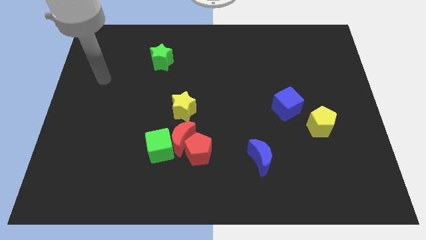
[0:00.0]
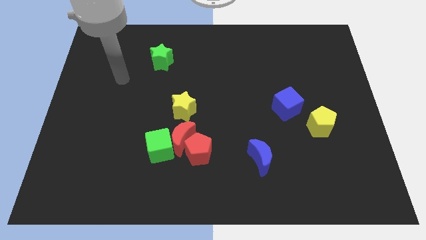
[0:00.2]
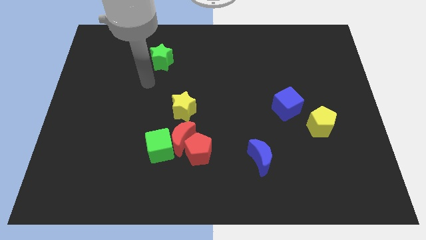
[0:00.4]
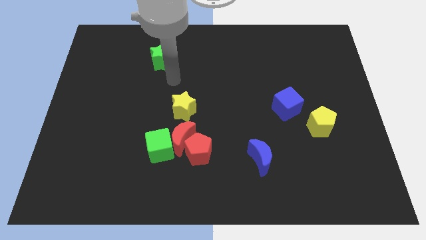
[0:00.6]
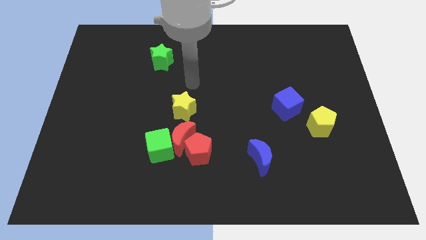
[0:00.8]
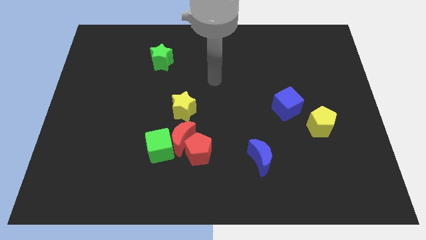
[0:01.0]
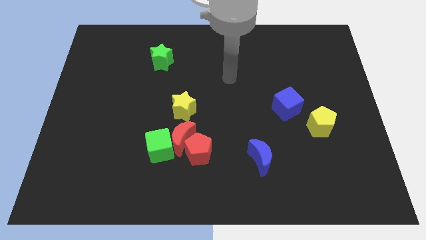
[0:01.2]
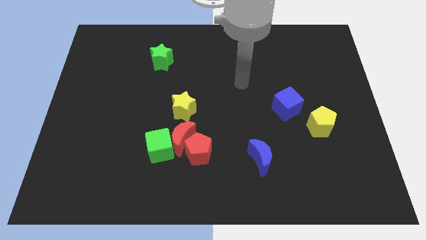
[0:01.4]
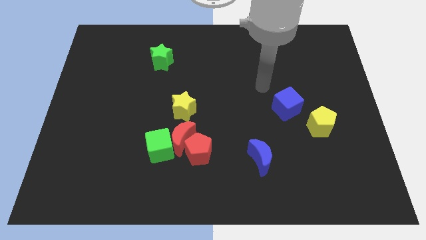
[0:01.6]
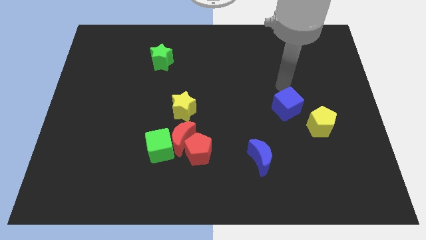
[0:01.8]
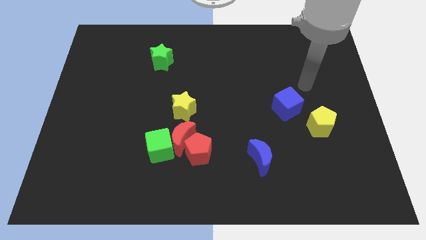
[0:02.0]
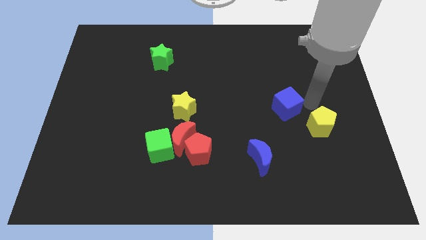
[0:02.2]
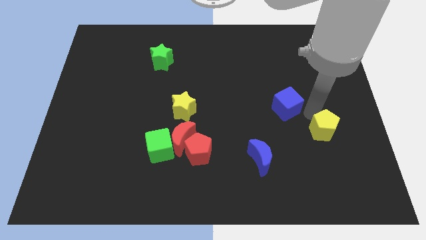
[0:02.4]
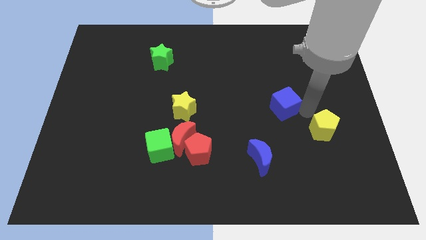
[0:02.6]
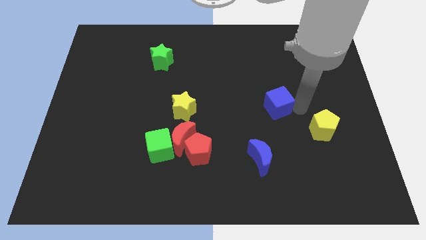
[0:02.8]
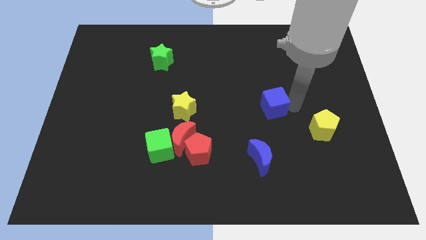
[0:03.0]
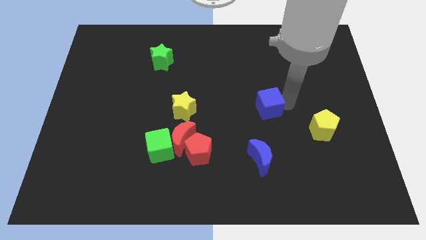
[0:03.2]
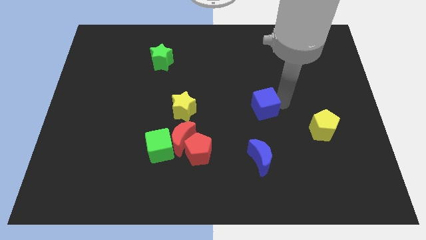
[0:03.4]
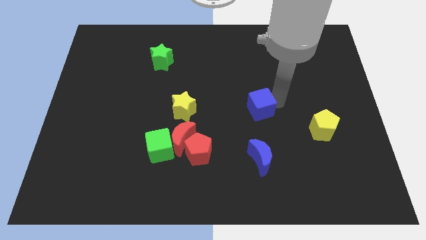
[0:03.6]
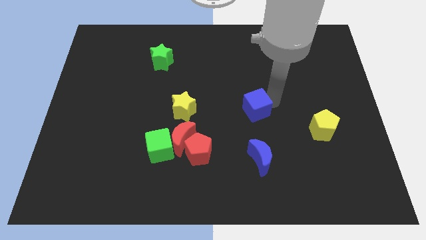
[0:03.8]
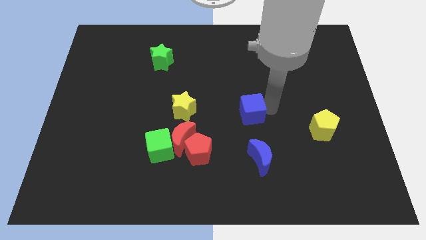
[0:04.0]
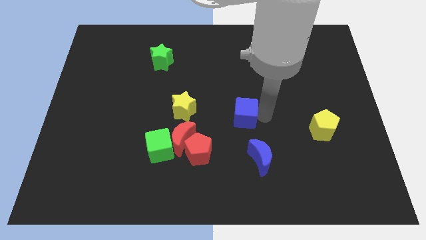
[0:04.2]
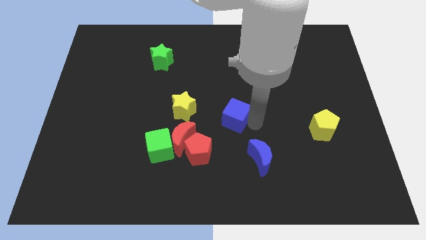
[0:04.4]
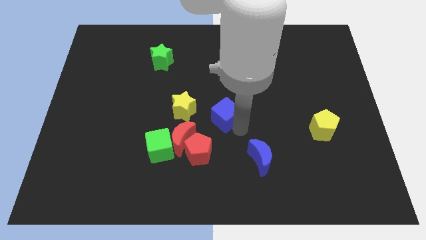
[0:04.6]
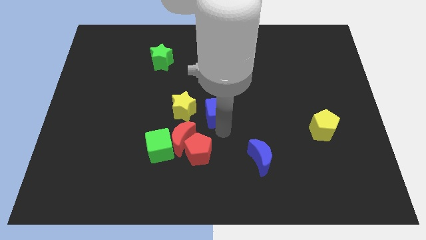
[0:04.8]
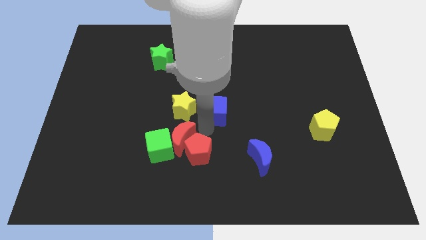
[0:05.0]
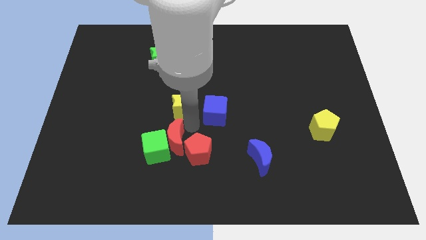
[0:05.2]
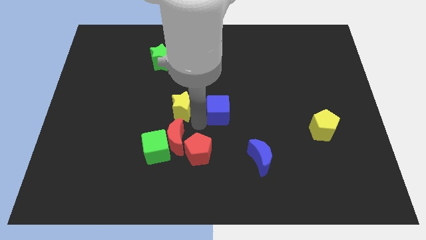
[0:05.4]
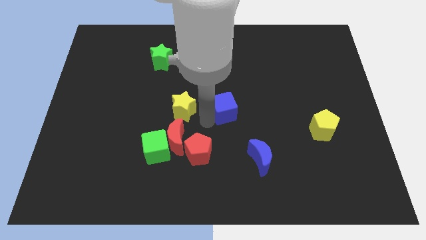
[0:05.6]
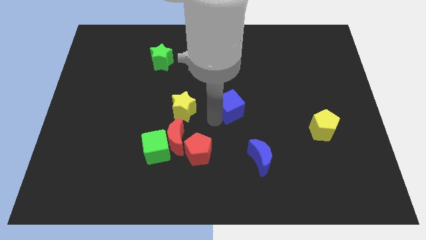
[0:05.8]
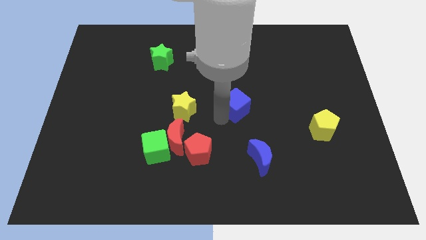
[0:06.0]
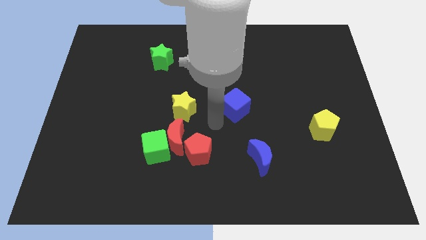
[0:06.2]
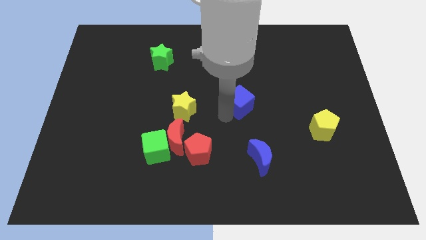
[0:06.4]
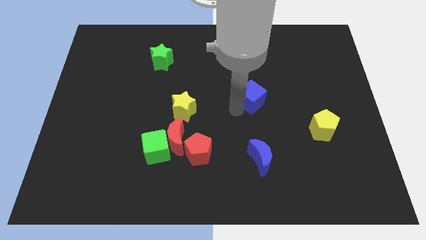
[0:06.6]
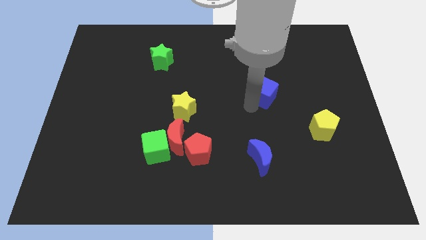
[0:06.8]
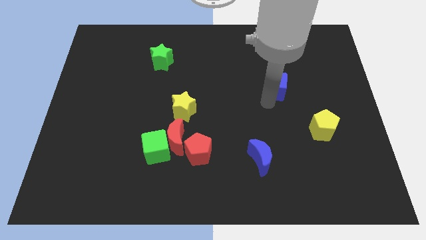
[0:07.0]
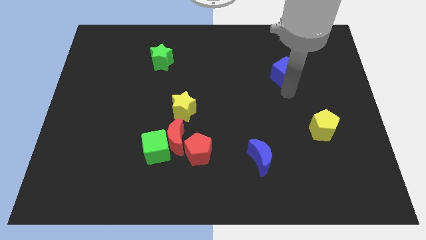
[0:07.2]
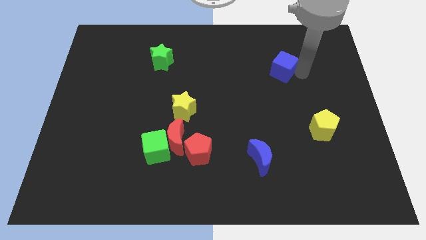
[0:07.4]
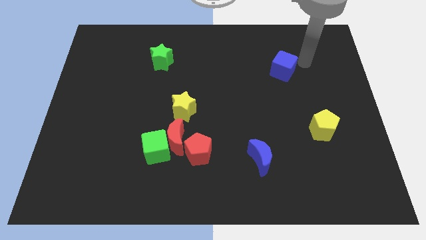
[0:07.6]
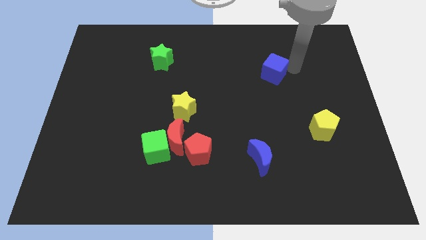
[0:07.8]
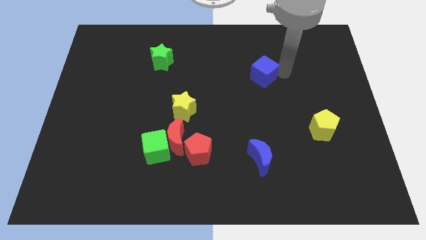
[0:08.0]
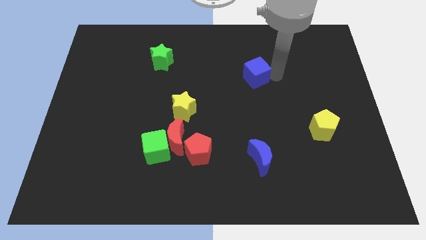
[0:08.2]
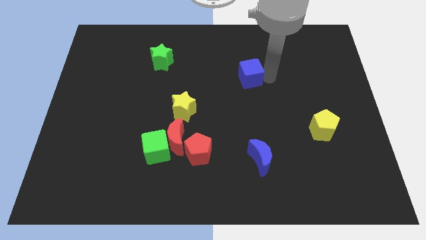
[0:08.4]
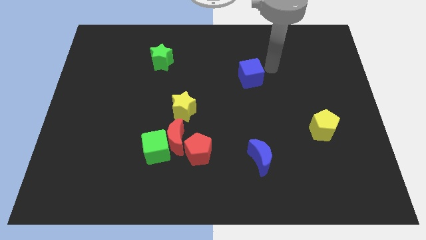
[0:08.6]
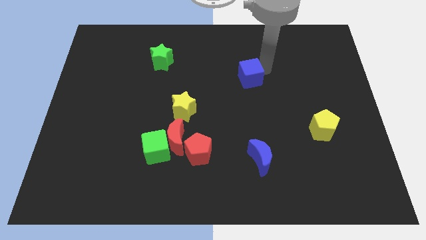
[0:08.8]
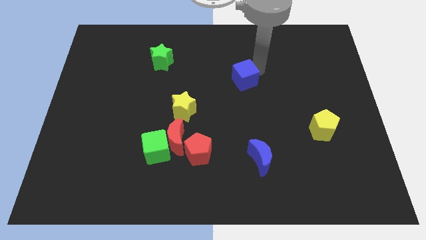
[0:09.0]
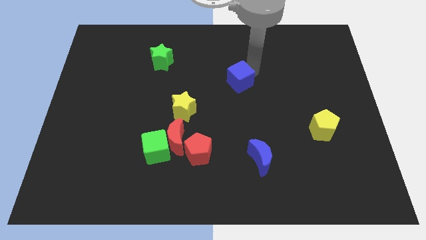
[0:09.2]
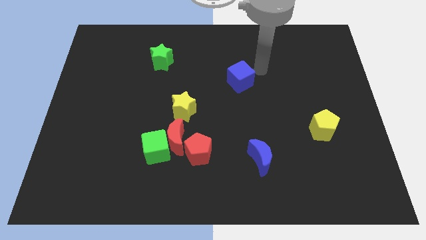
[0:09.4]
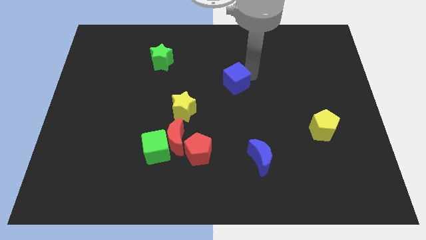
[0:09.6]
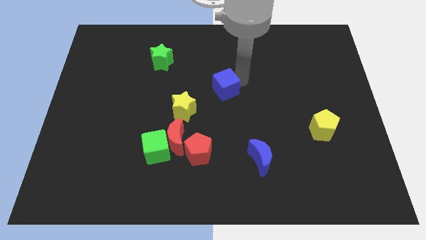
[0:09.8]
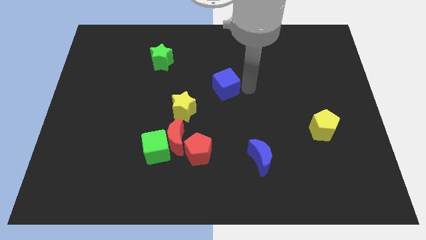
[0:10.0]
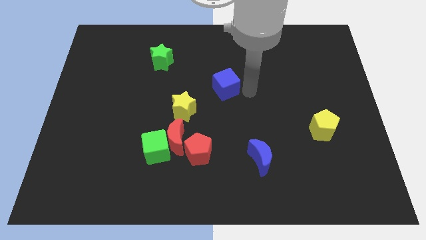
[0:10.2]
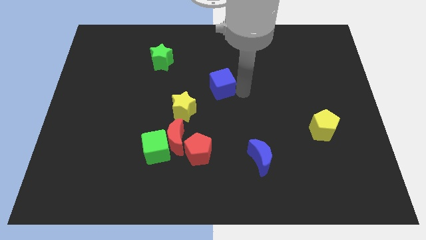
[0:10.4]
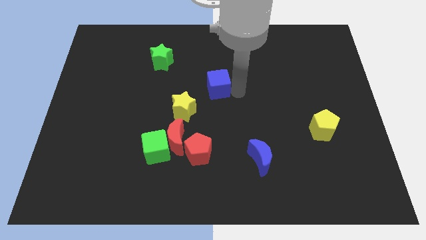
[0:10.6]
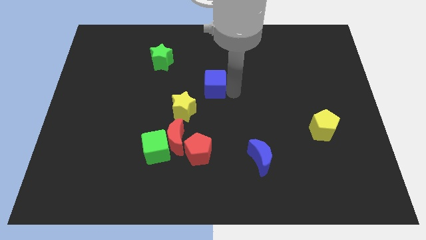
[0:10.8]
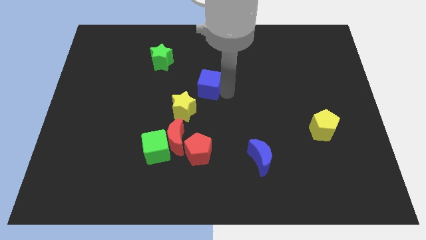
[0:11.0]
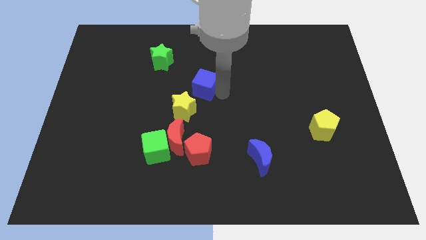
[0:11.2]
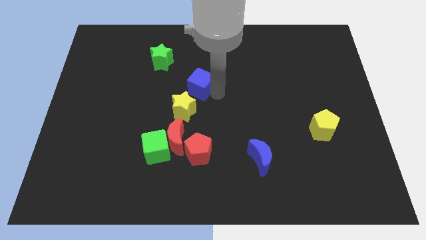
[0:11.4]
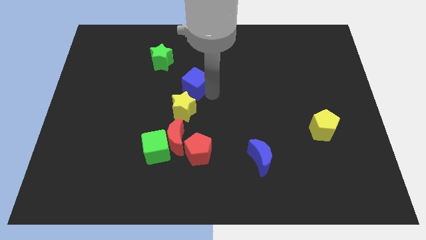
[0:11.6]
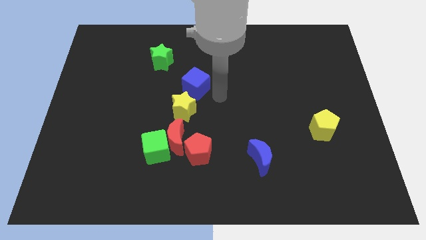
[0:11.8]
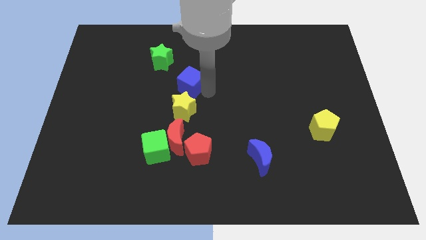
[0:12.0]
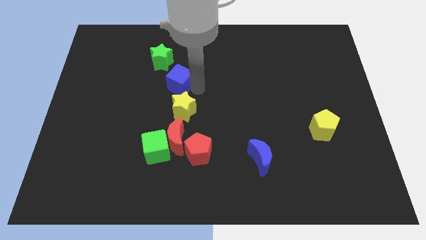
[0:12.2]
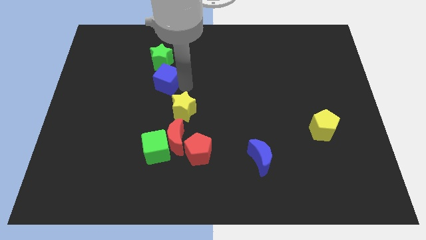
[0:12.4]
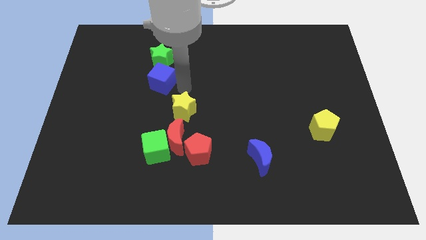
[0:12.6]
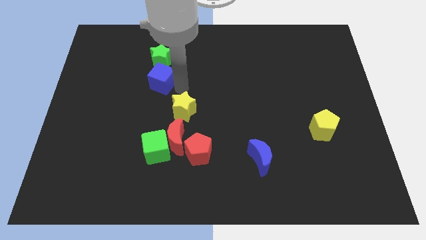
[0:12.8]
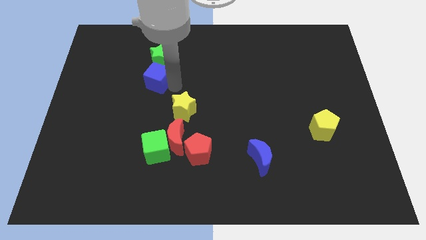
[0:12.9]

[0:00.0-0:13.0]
put the blue cube diagonally down and to the left of the green star

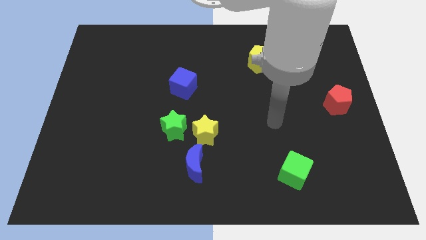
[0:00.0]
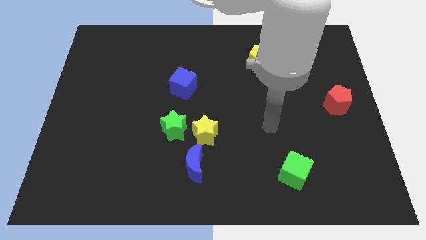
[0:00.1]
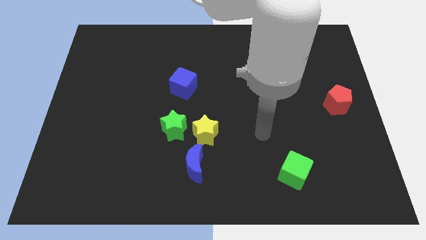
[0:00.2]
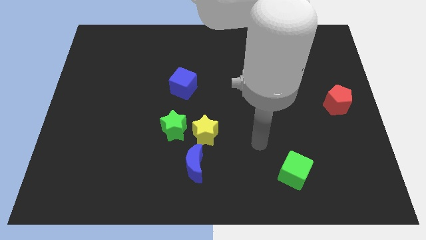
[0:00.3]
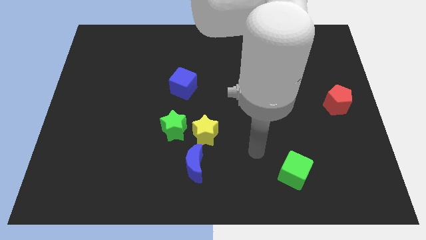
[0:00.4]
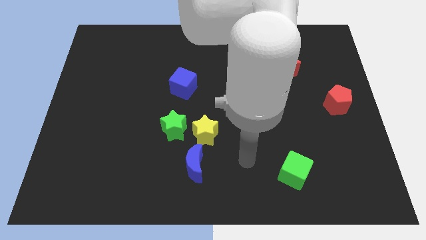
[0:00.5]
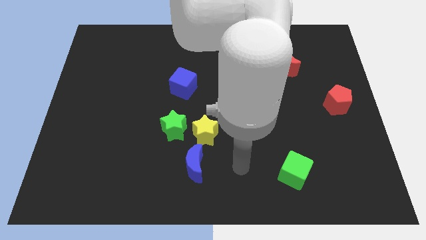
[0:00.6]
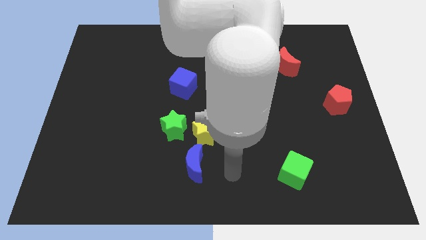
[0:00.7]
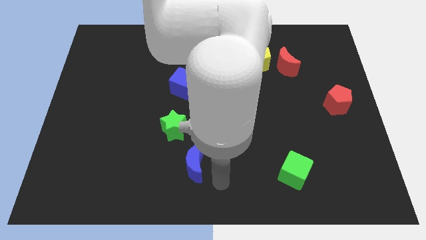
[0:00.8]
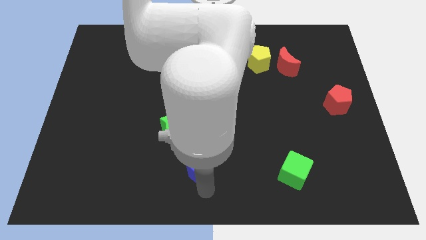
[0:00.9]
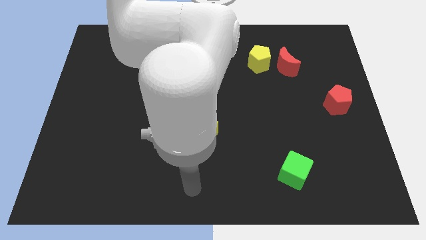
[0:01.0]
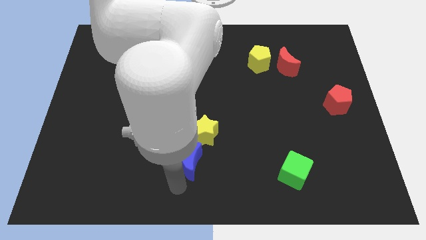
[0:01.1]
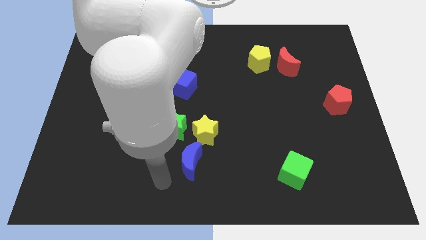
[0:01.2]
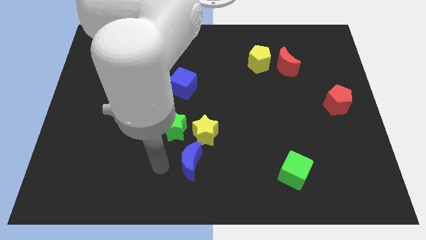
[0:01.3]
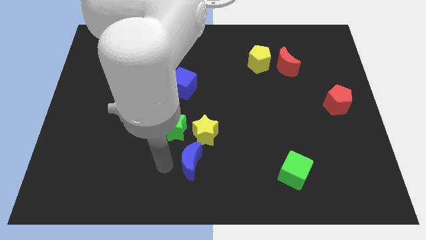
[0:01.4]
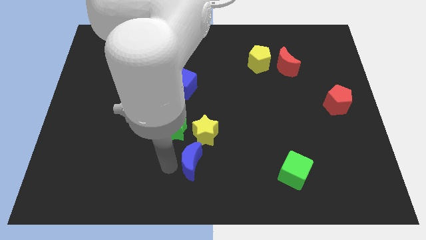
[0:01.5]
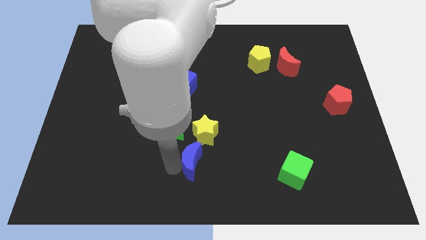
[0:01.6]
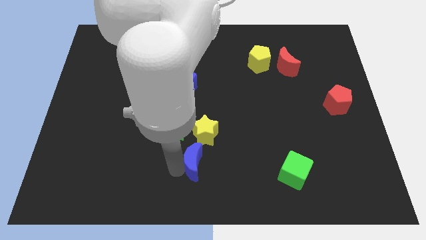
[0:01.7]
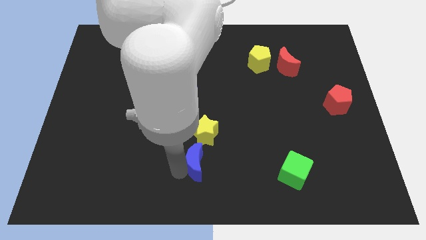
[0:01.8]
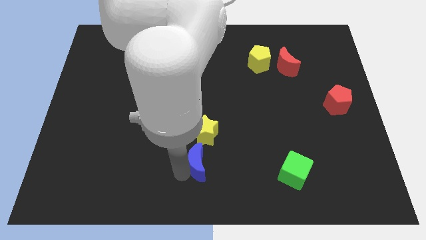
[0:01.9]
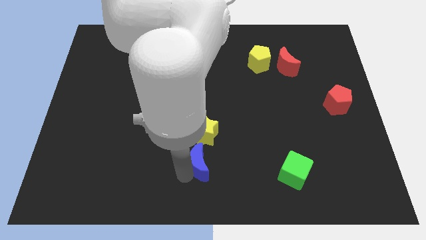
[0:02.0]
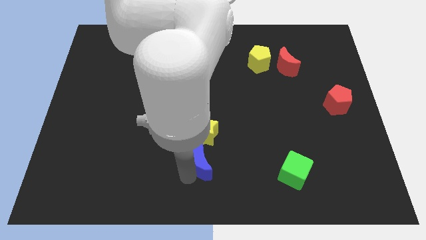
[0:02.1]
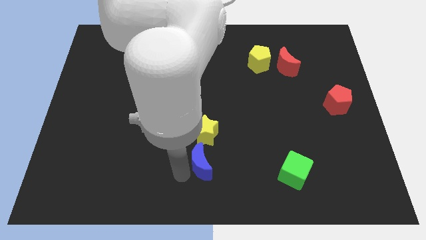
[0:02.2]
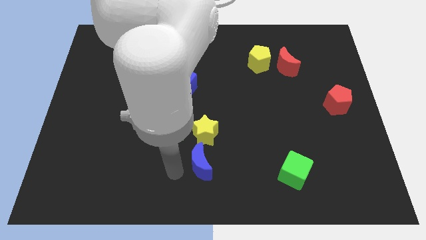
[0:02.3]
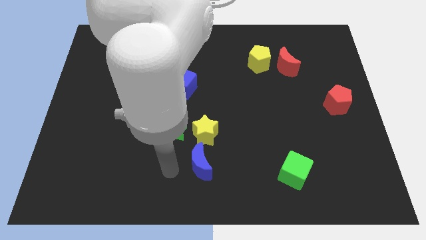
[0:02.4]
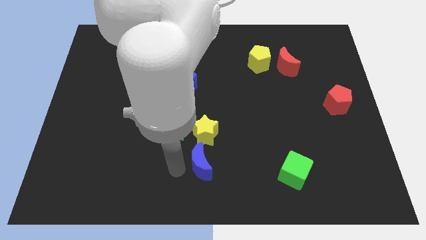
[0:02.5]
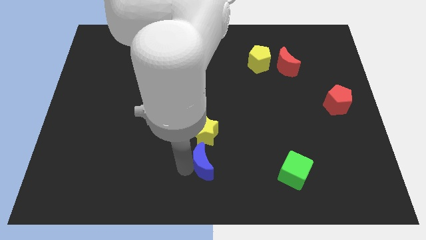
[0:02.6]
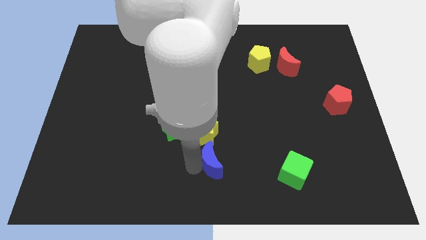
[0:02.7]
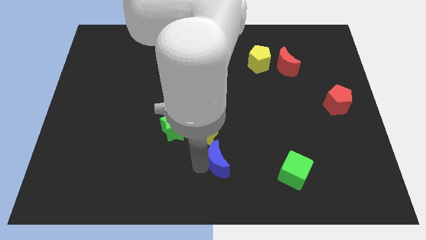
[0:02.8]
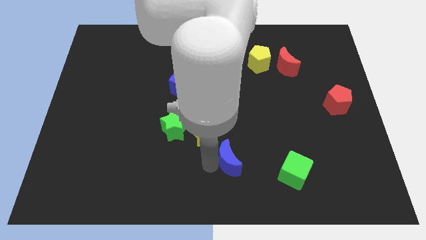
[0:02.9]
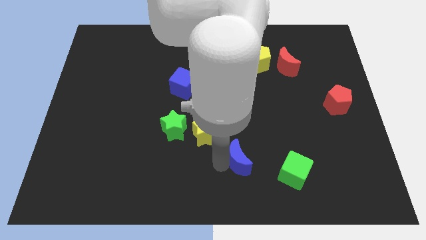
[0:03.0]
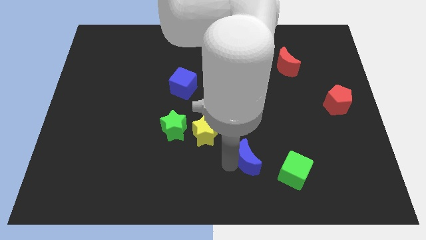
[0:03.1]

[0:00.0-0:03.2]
push the blue moon to the top left side of the green cube
